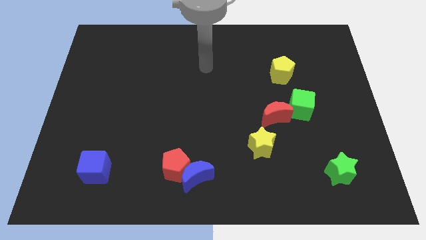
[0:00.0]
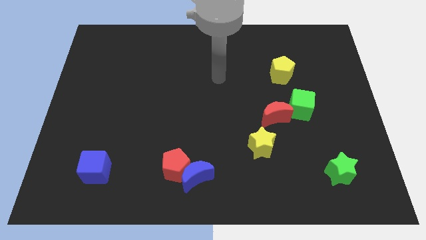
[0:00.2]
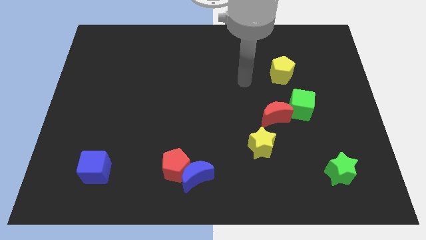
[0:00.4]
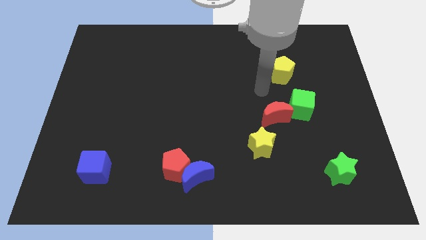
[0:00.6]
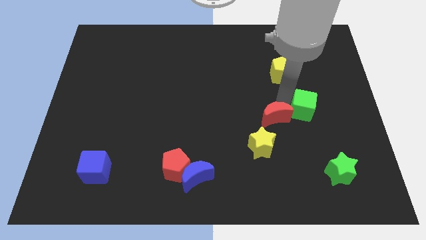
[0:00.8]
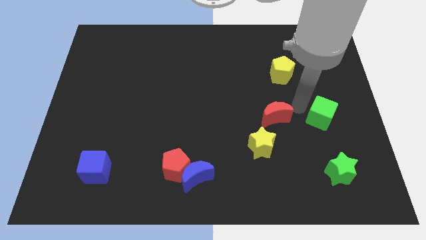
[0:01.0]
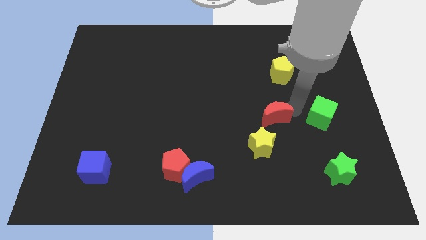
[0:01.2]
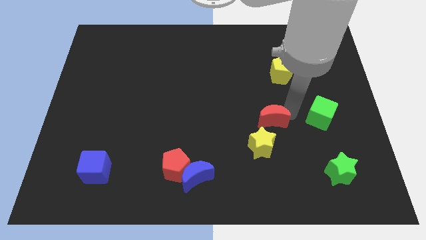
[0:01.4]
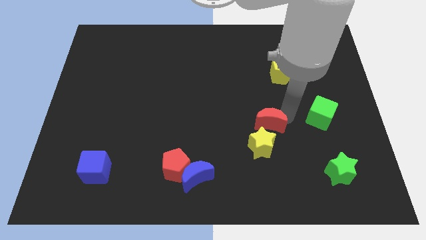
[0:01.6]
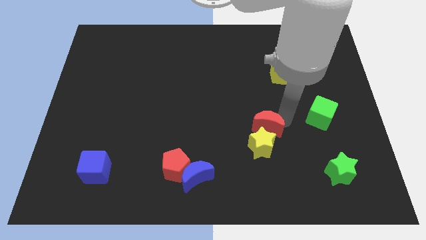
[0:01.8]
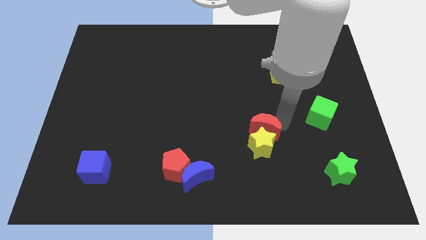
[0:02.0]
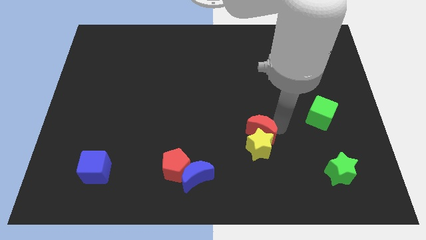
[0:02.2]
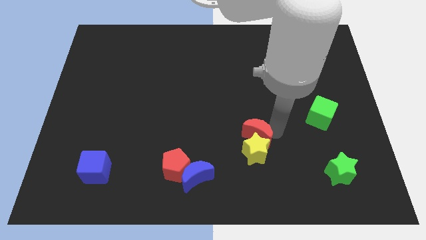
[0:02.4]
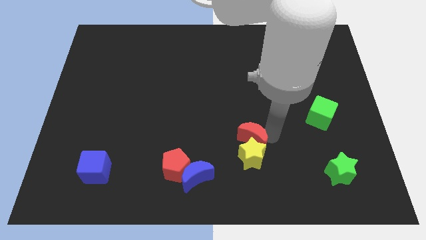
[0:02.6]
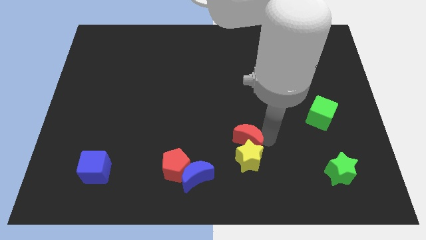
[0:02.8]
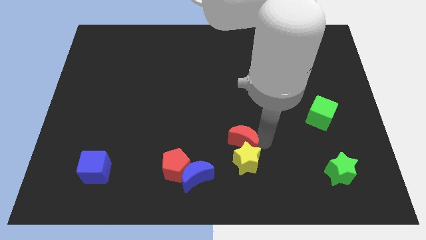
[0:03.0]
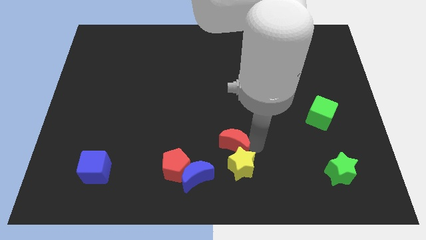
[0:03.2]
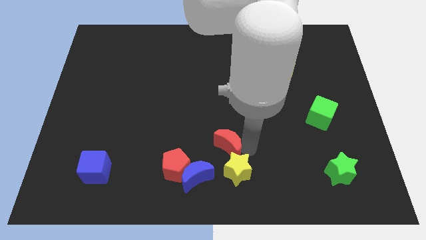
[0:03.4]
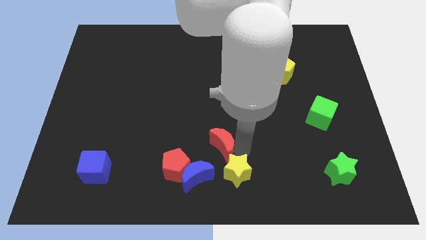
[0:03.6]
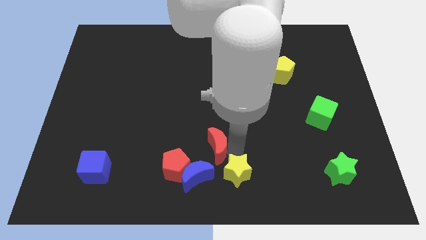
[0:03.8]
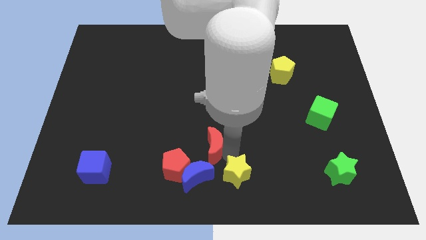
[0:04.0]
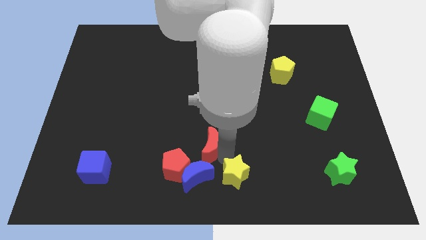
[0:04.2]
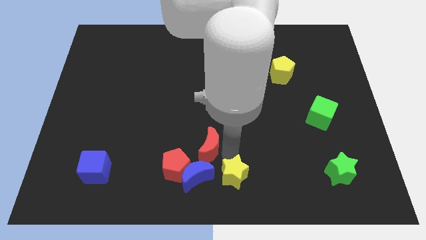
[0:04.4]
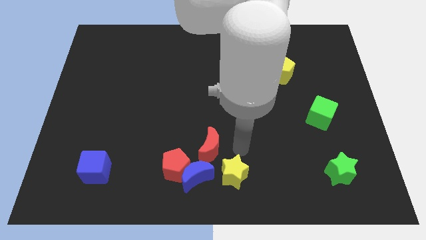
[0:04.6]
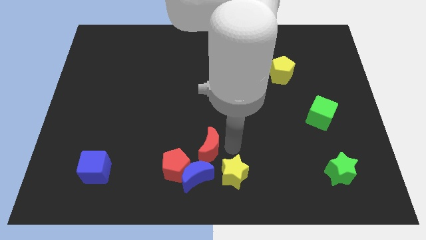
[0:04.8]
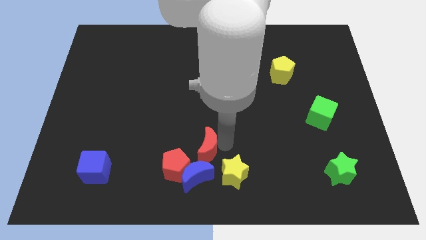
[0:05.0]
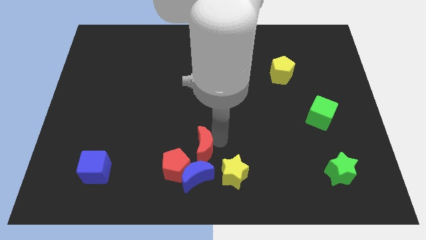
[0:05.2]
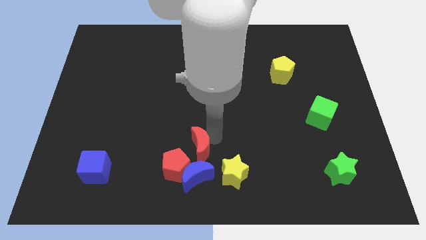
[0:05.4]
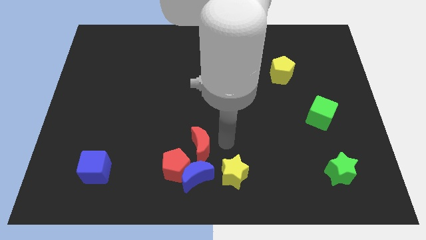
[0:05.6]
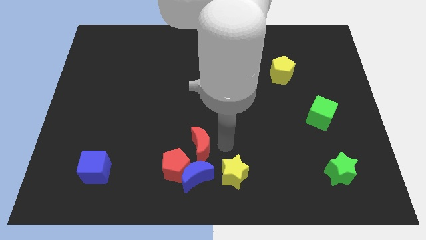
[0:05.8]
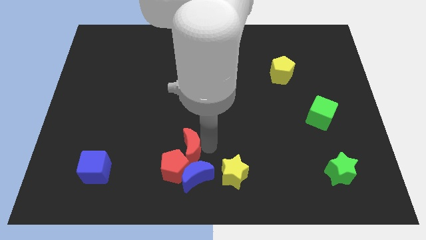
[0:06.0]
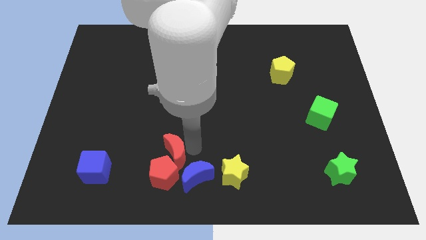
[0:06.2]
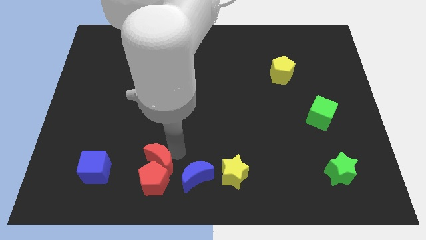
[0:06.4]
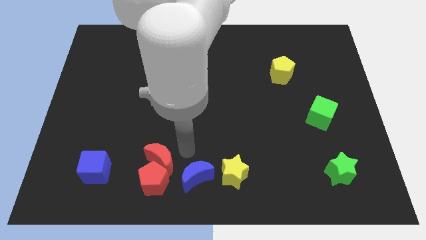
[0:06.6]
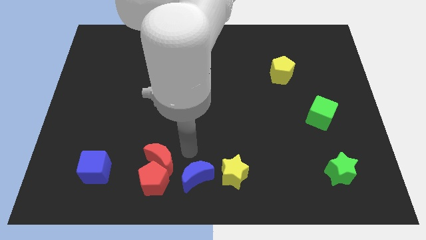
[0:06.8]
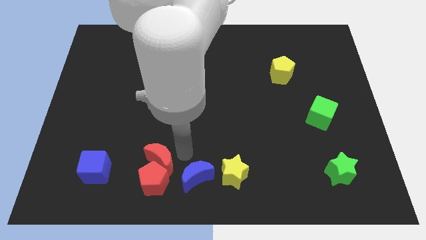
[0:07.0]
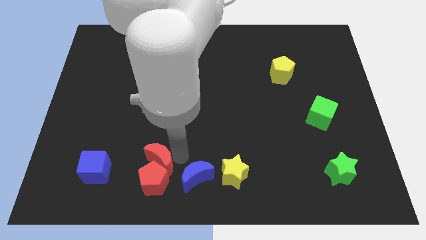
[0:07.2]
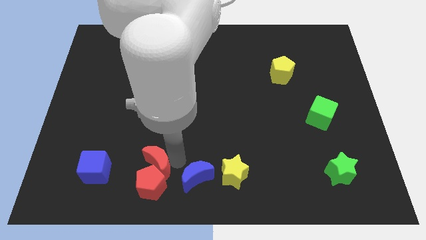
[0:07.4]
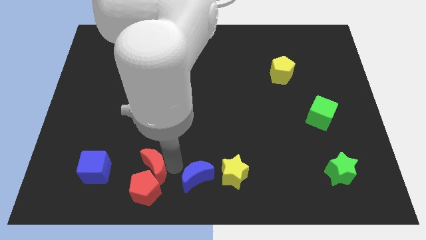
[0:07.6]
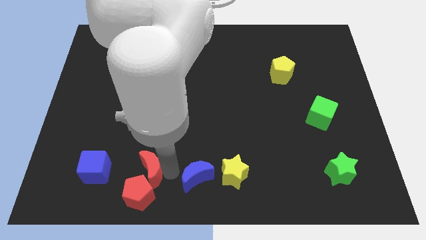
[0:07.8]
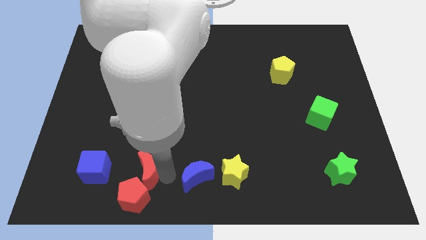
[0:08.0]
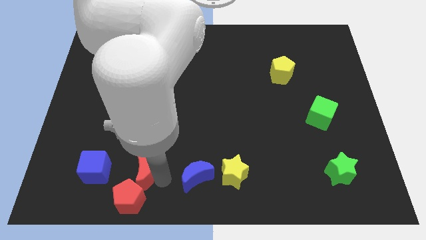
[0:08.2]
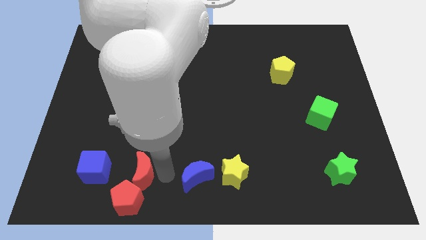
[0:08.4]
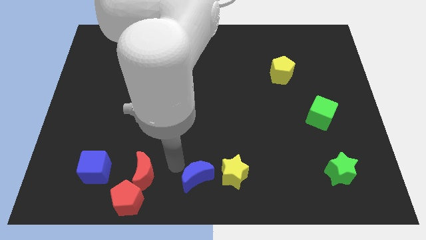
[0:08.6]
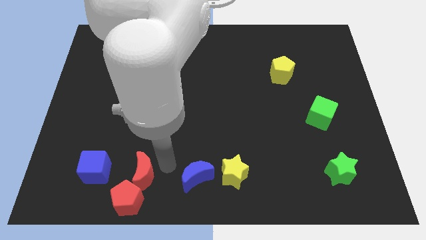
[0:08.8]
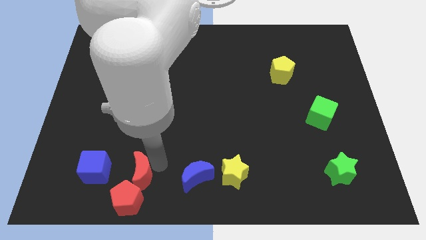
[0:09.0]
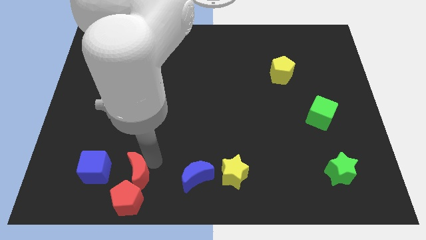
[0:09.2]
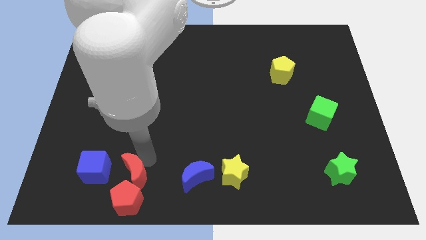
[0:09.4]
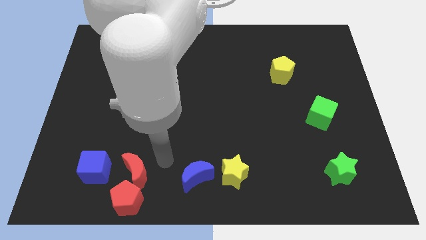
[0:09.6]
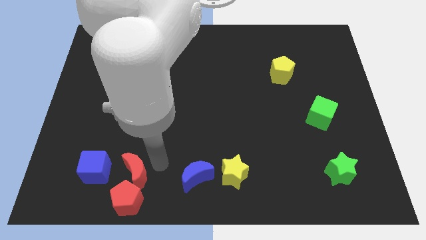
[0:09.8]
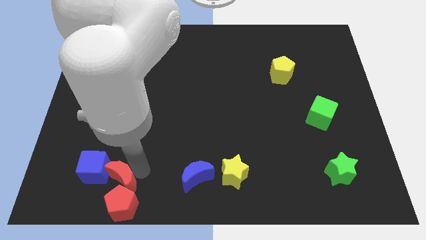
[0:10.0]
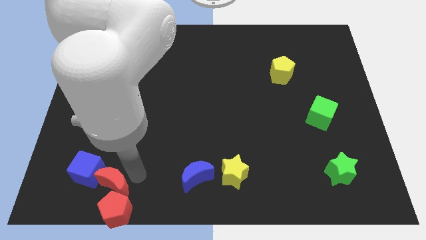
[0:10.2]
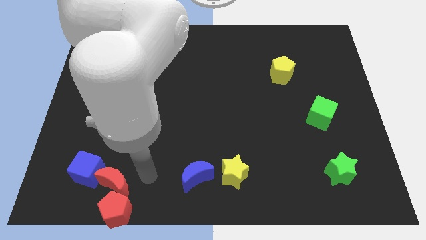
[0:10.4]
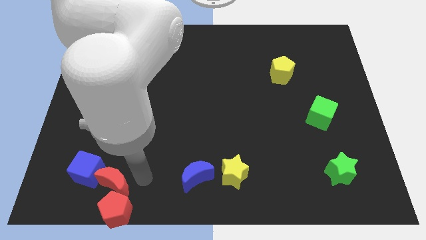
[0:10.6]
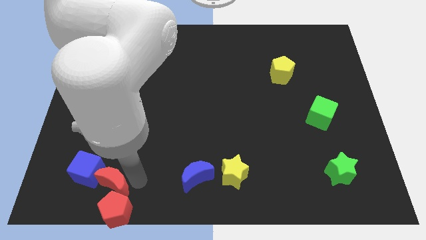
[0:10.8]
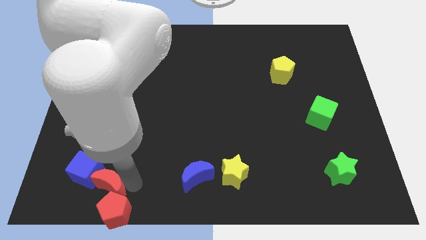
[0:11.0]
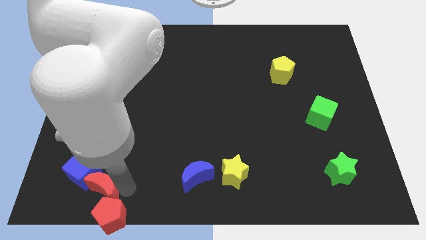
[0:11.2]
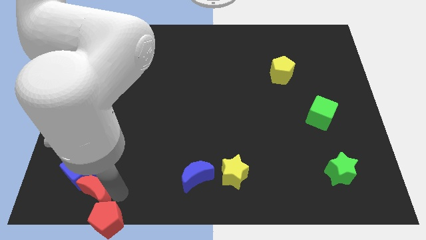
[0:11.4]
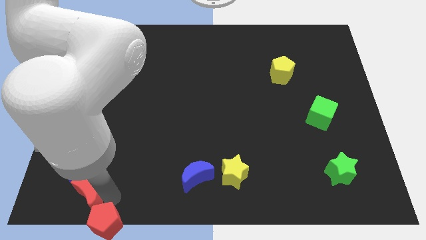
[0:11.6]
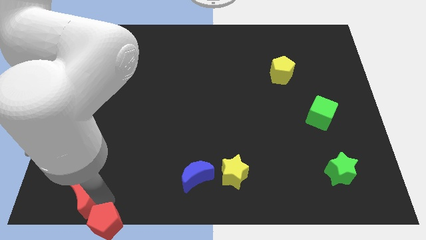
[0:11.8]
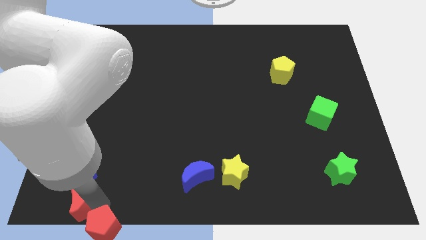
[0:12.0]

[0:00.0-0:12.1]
move the red moon to the bottom left

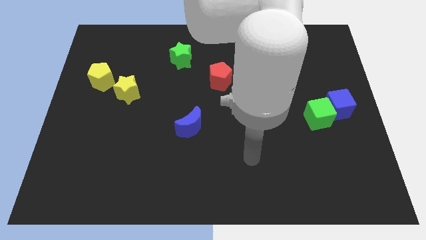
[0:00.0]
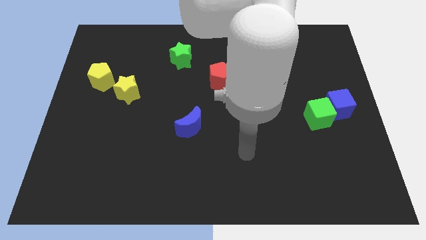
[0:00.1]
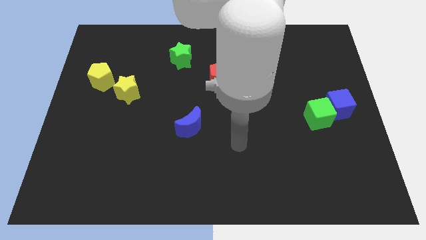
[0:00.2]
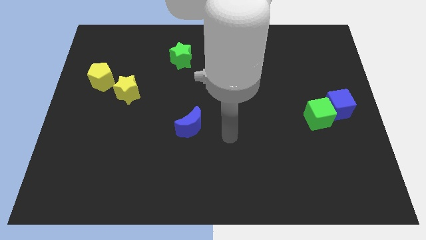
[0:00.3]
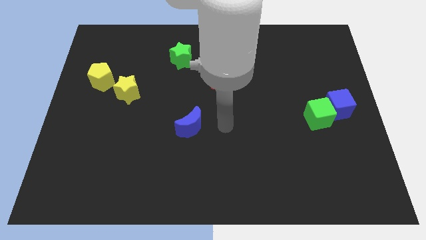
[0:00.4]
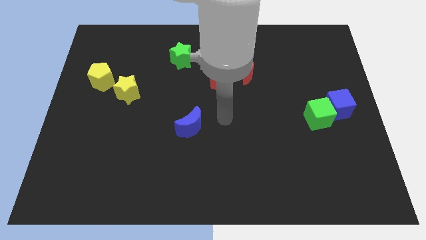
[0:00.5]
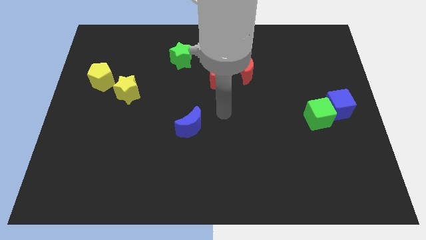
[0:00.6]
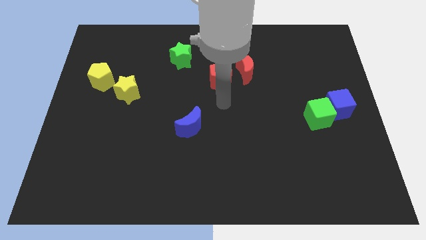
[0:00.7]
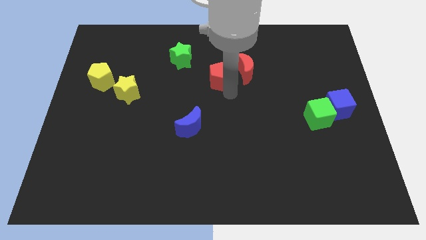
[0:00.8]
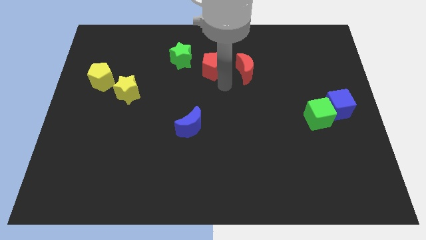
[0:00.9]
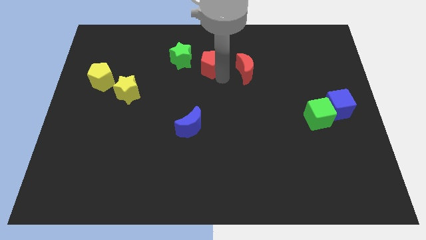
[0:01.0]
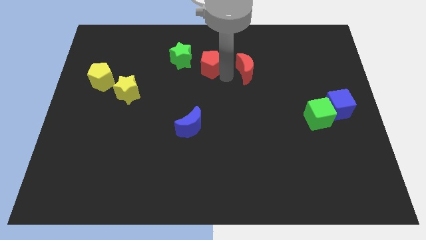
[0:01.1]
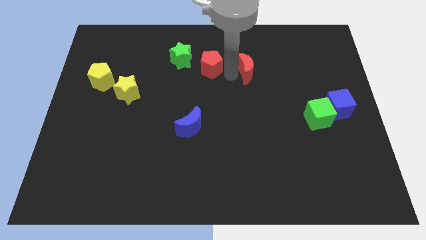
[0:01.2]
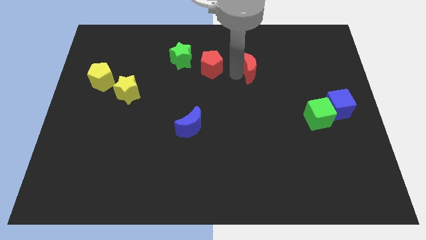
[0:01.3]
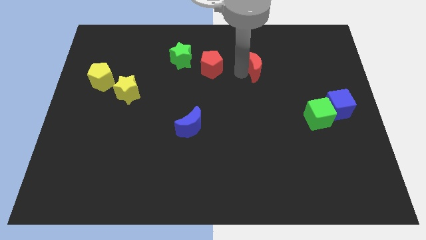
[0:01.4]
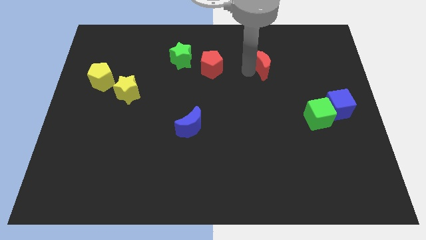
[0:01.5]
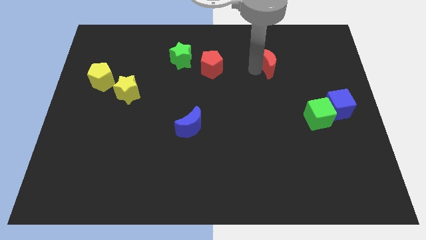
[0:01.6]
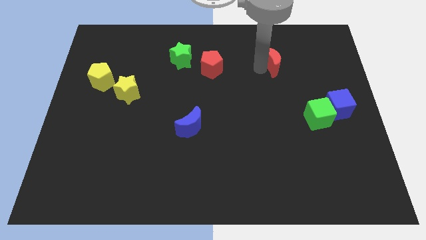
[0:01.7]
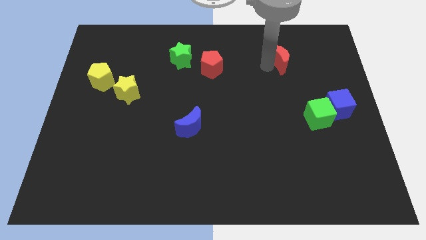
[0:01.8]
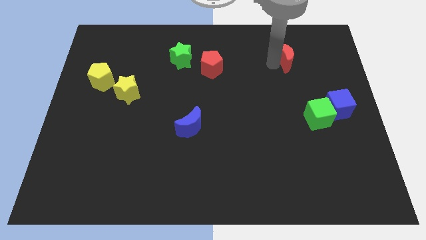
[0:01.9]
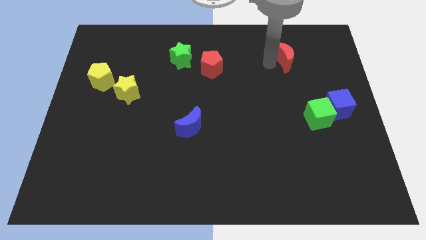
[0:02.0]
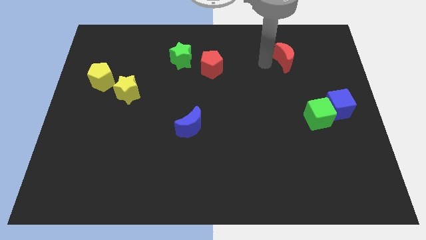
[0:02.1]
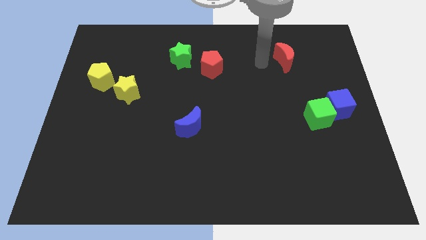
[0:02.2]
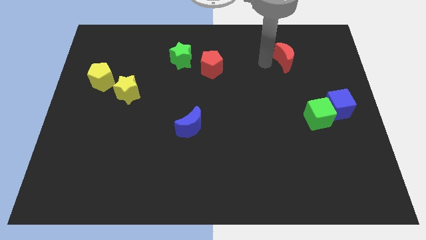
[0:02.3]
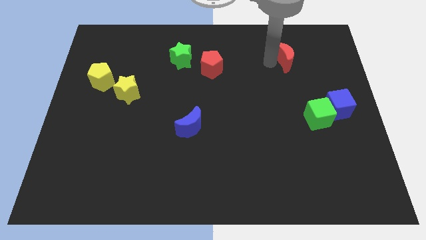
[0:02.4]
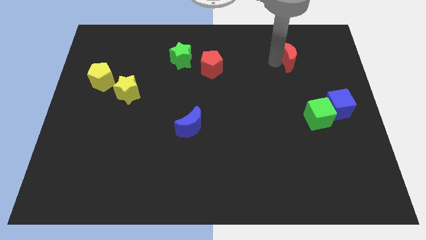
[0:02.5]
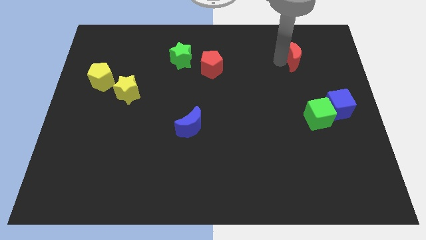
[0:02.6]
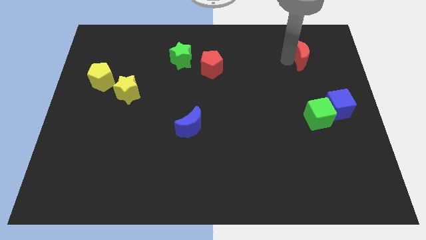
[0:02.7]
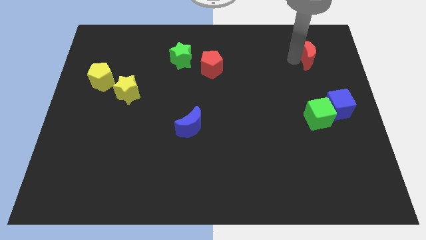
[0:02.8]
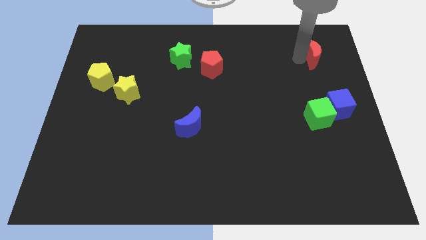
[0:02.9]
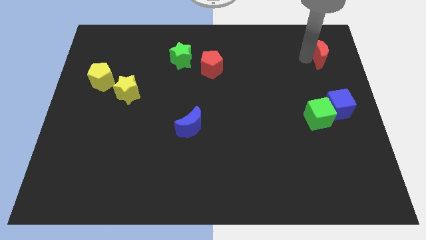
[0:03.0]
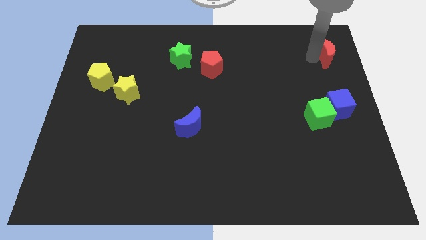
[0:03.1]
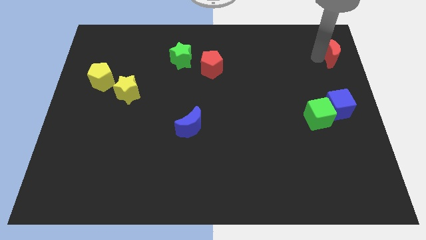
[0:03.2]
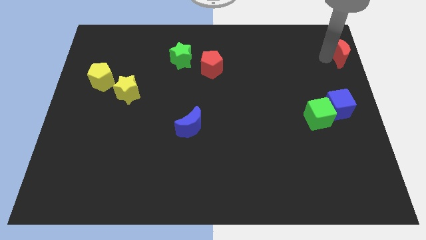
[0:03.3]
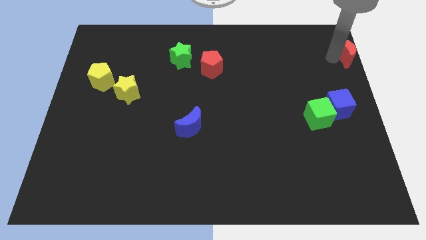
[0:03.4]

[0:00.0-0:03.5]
put the red moon to the top right corner
